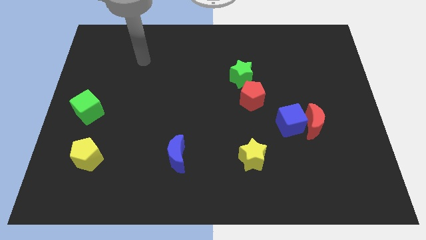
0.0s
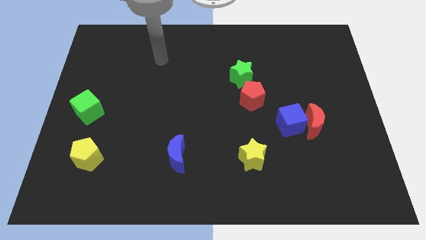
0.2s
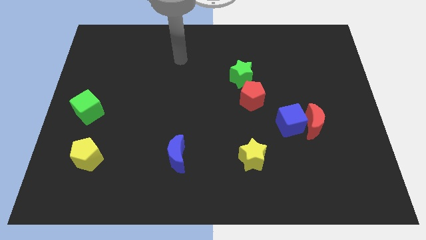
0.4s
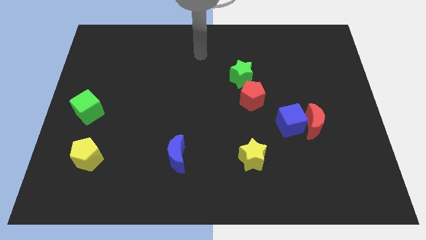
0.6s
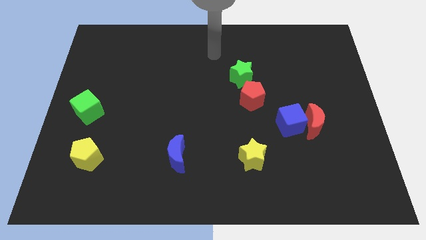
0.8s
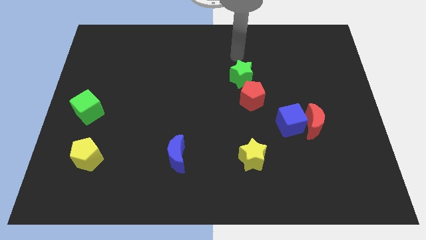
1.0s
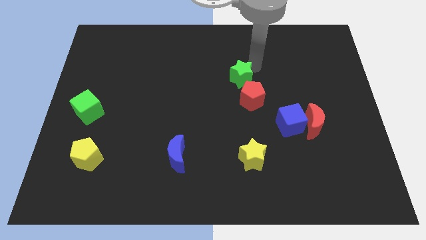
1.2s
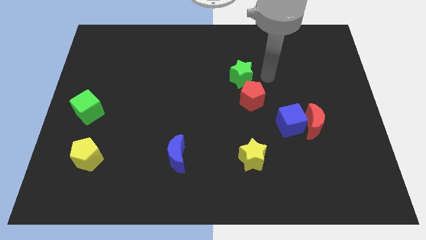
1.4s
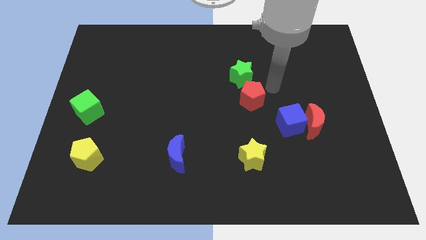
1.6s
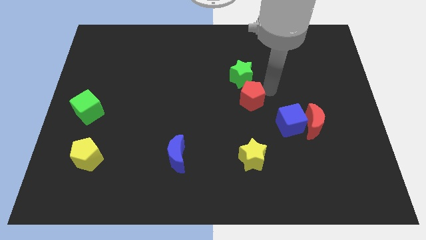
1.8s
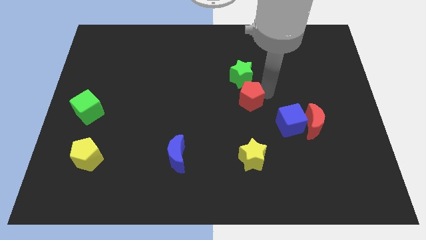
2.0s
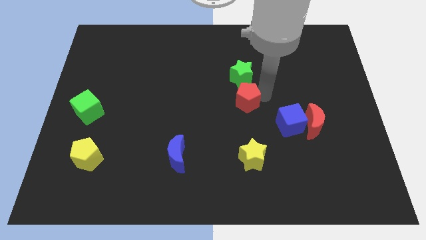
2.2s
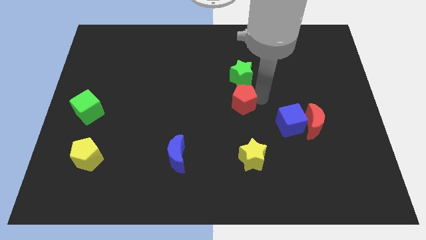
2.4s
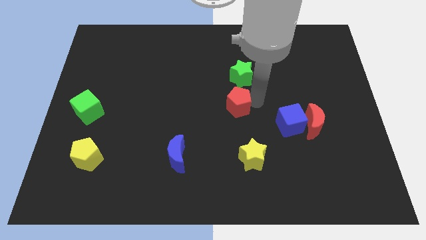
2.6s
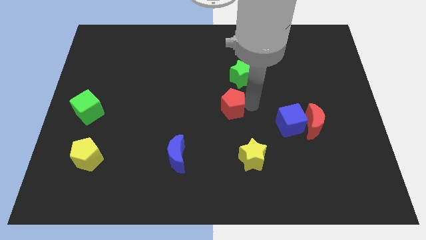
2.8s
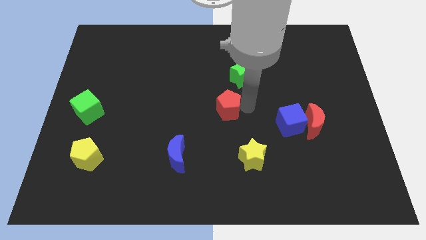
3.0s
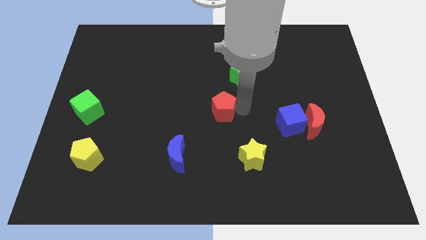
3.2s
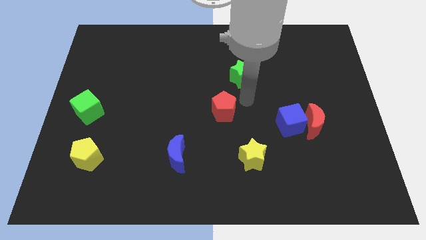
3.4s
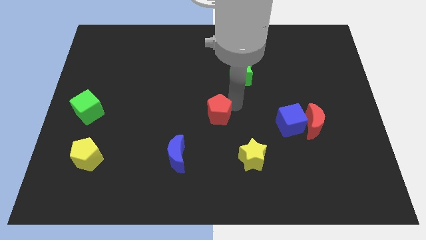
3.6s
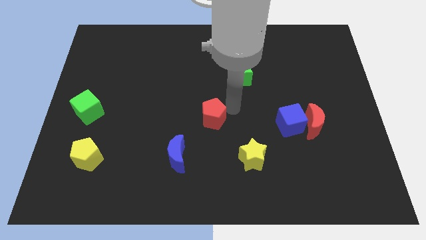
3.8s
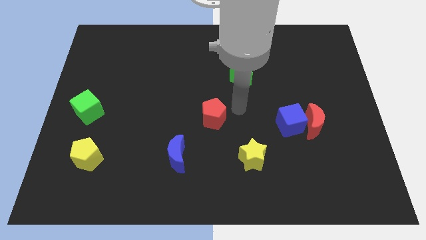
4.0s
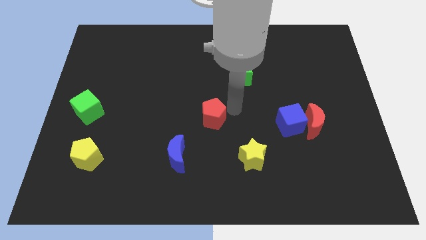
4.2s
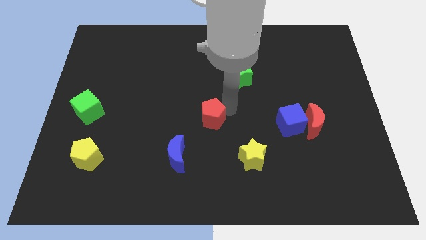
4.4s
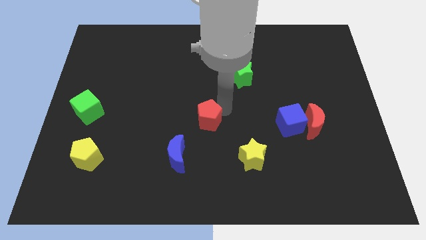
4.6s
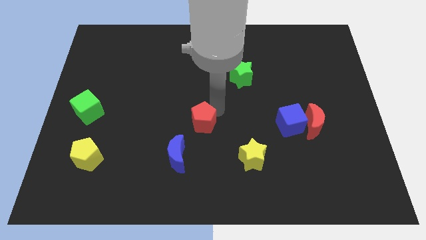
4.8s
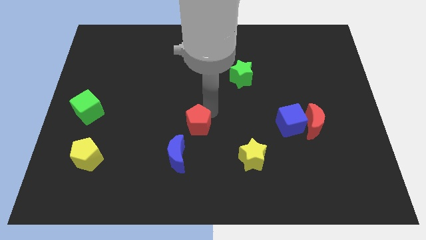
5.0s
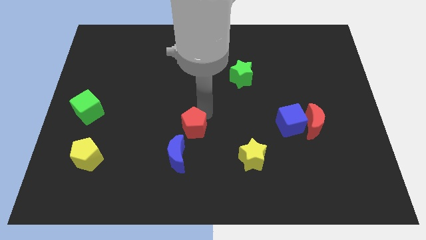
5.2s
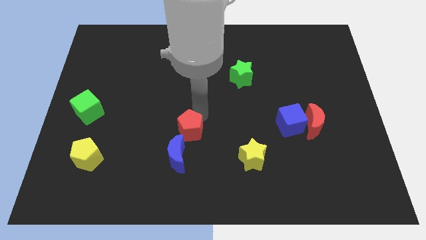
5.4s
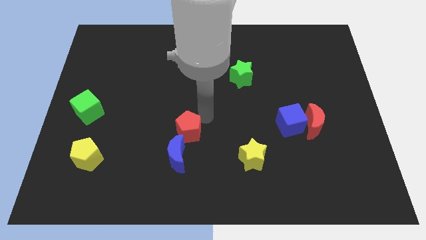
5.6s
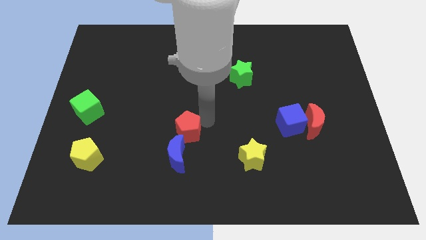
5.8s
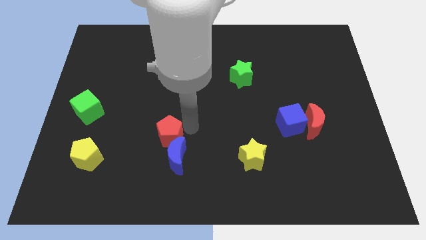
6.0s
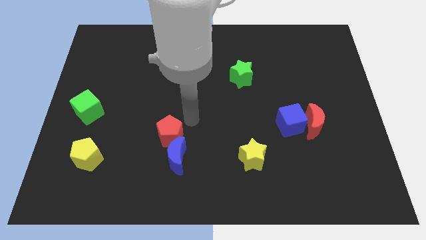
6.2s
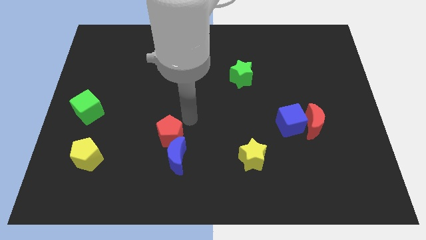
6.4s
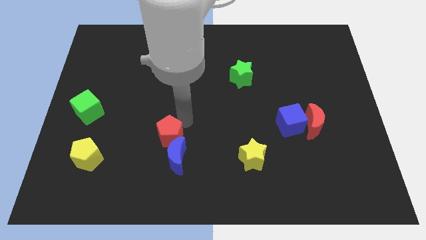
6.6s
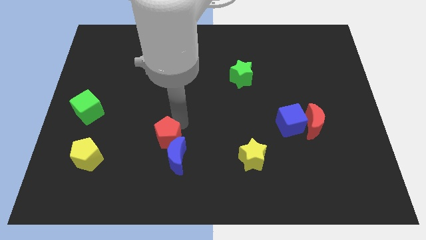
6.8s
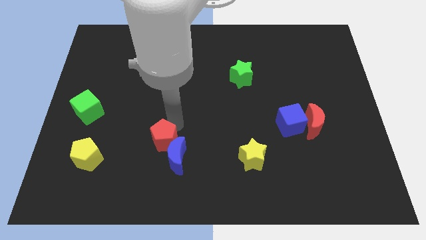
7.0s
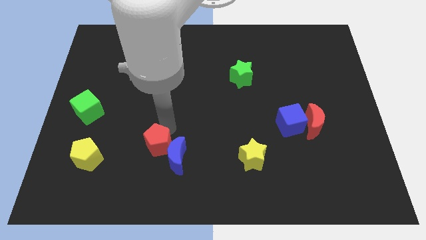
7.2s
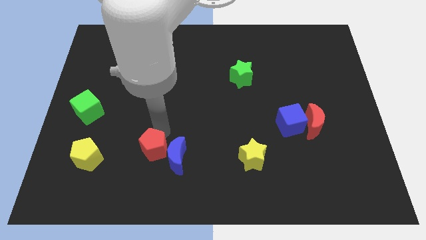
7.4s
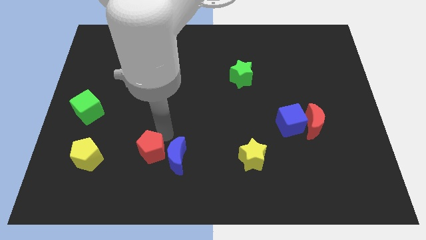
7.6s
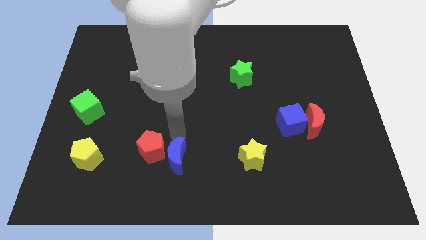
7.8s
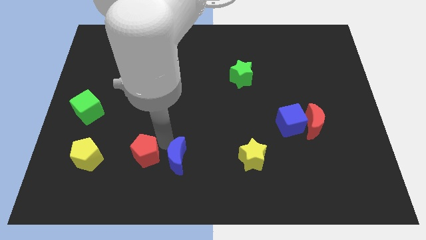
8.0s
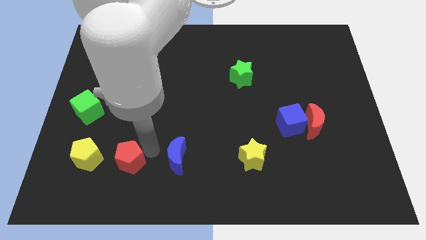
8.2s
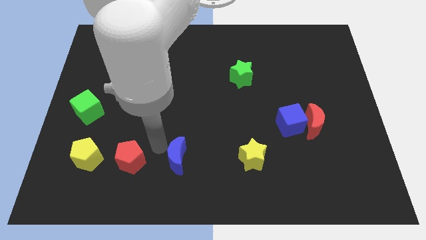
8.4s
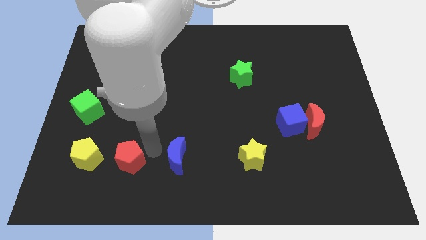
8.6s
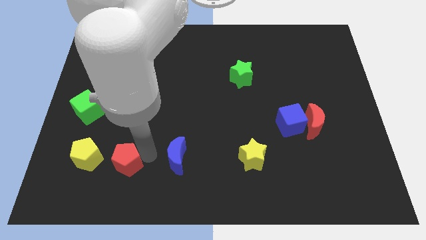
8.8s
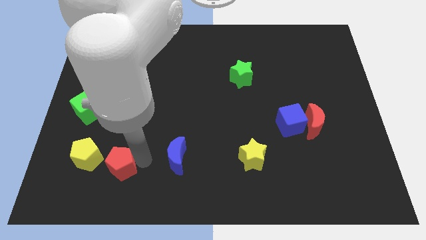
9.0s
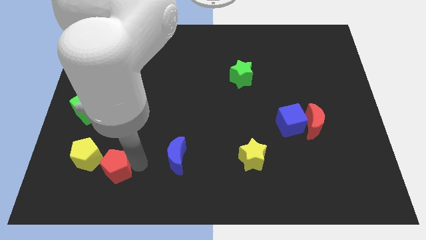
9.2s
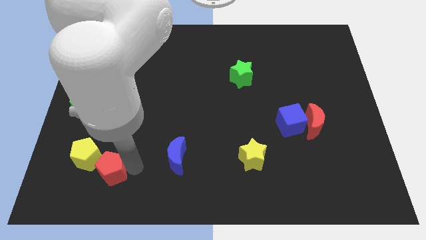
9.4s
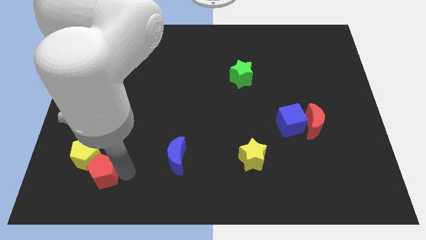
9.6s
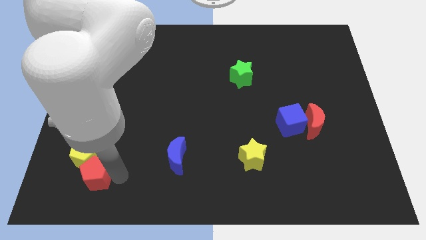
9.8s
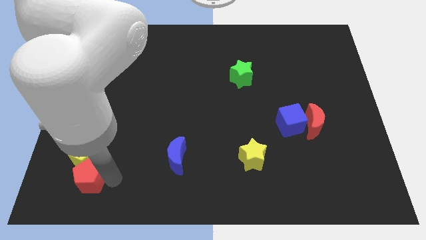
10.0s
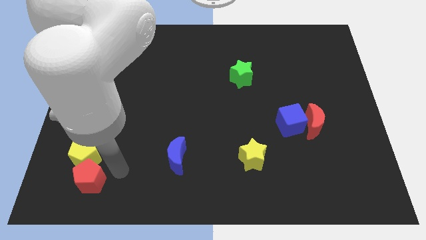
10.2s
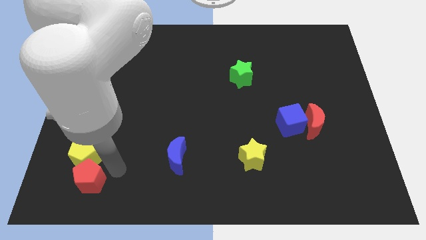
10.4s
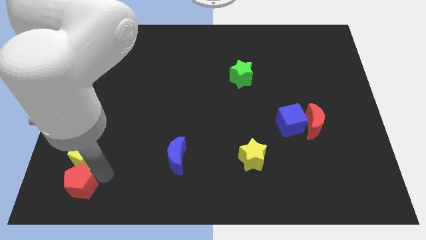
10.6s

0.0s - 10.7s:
slide the red pentagon to the lower left corner

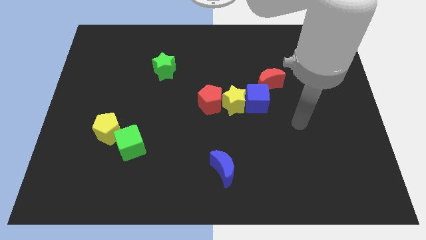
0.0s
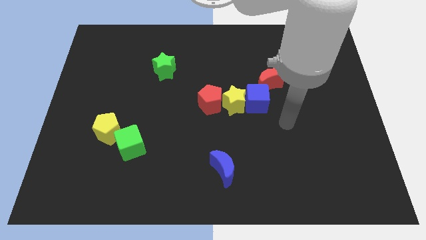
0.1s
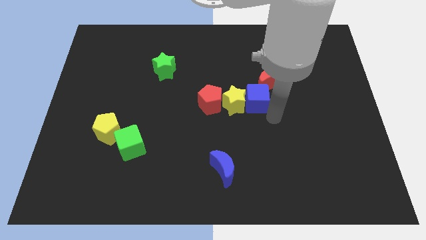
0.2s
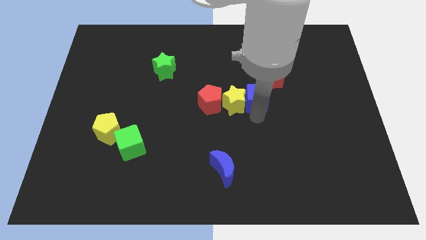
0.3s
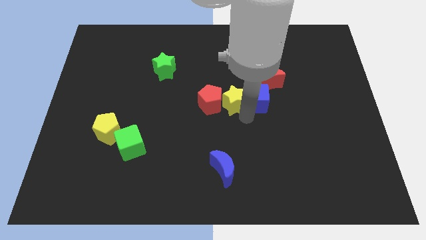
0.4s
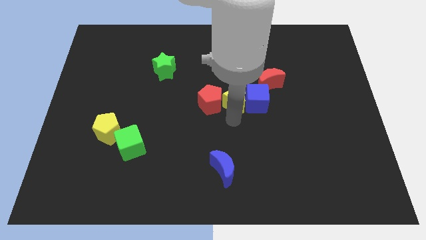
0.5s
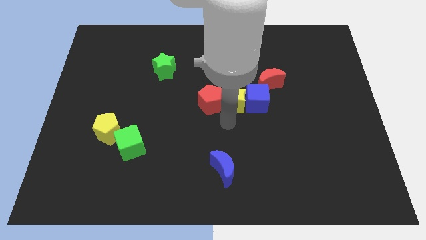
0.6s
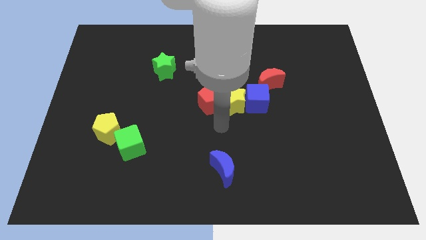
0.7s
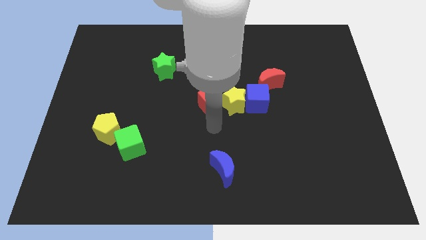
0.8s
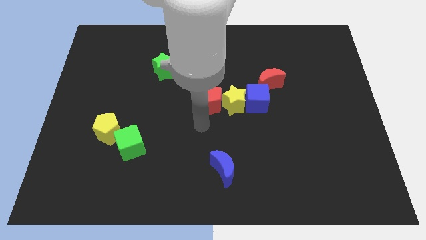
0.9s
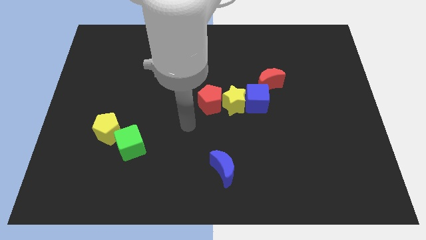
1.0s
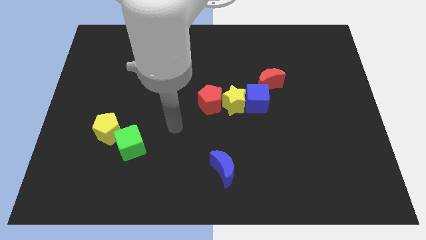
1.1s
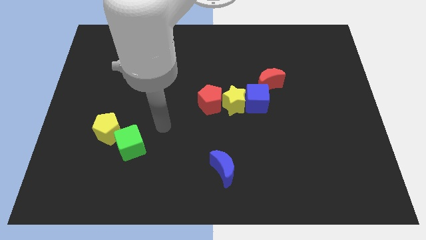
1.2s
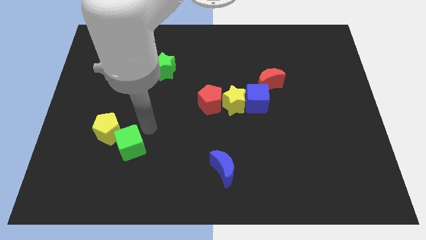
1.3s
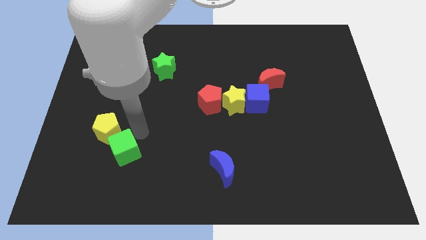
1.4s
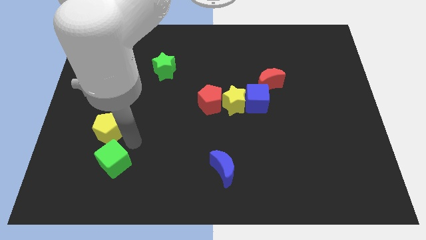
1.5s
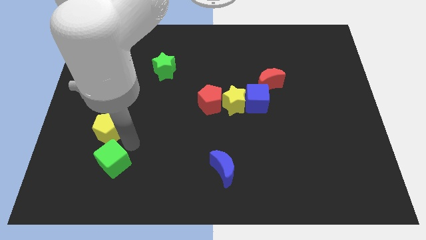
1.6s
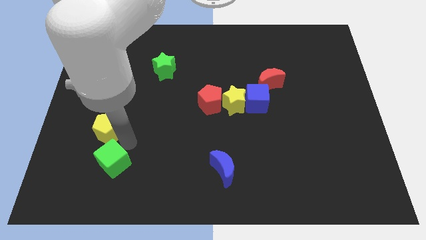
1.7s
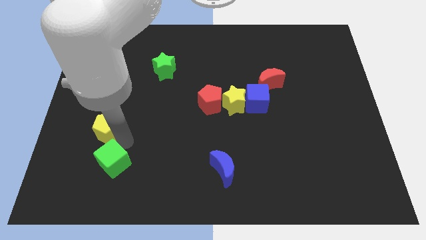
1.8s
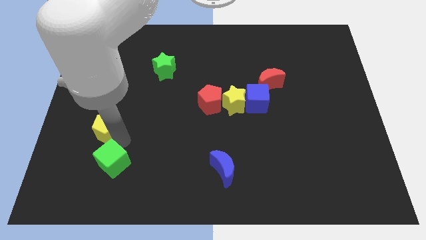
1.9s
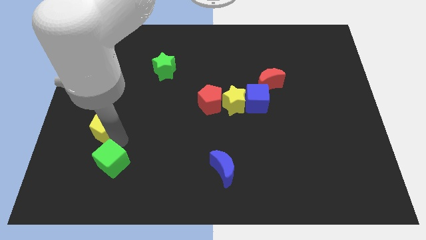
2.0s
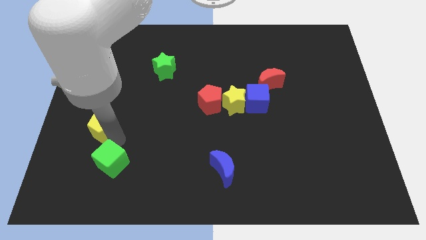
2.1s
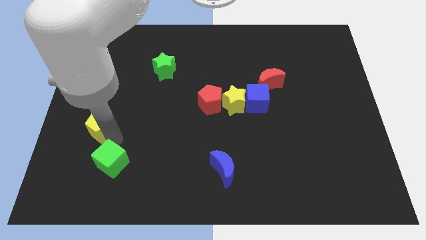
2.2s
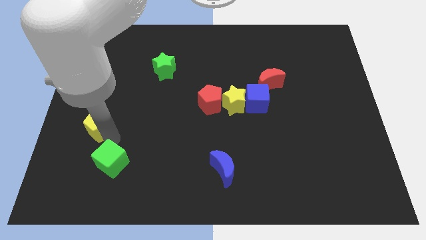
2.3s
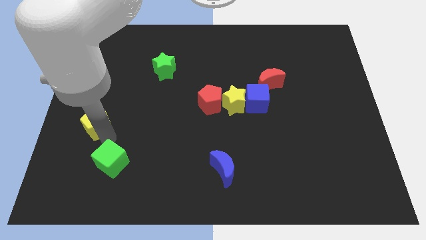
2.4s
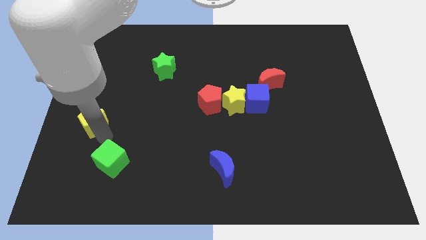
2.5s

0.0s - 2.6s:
push the yellow pentagon to the left side of the board
